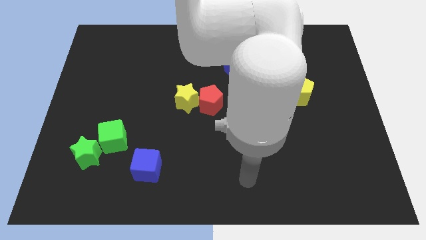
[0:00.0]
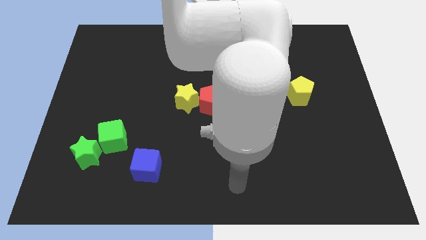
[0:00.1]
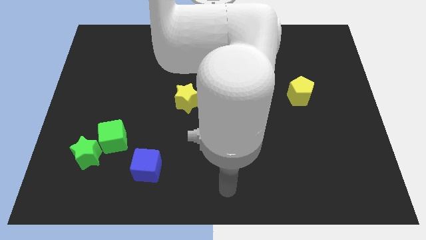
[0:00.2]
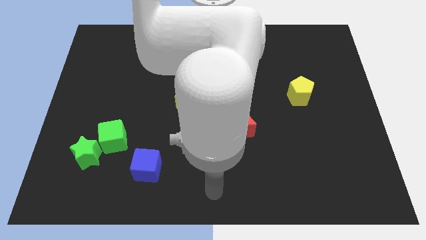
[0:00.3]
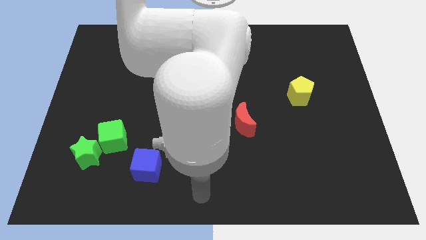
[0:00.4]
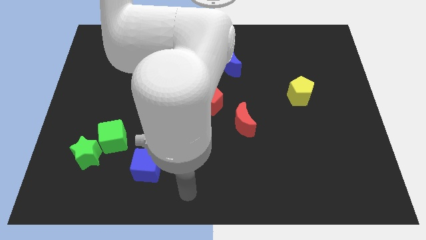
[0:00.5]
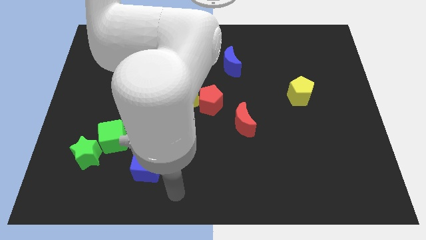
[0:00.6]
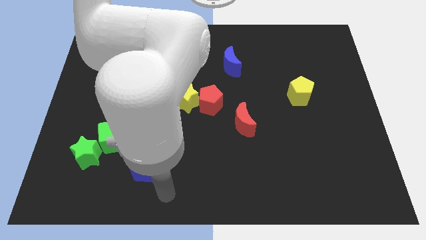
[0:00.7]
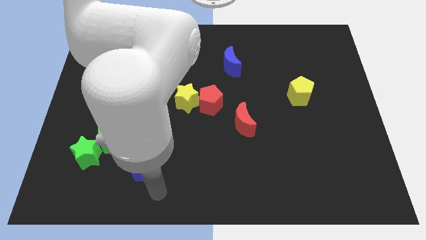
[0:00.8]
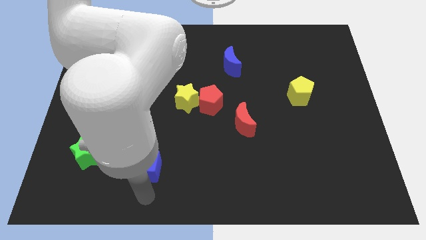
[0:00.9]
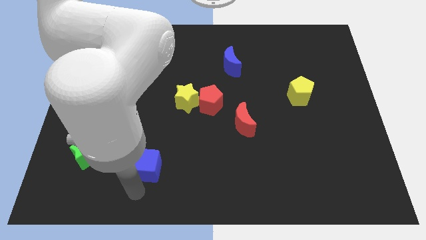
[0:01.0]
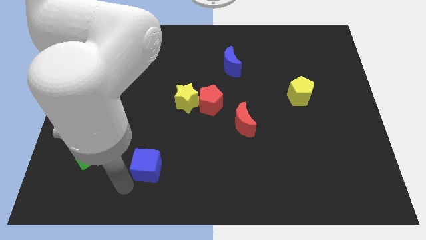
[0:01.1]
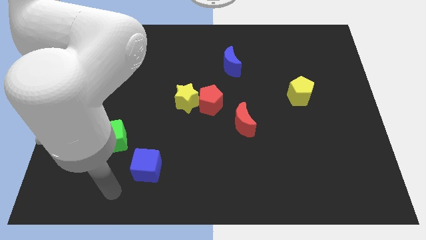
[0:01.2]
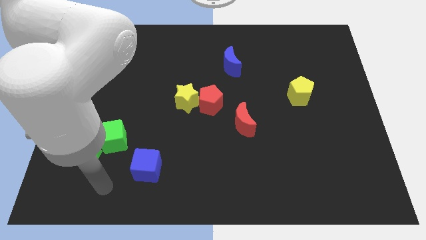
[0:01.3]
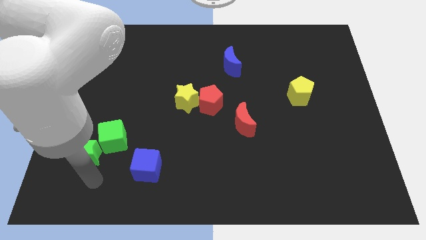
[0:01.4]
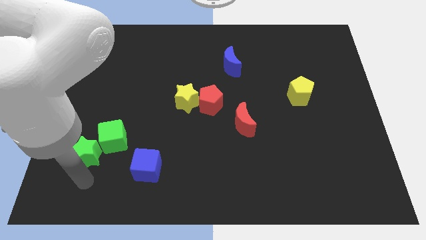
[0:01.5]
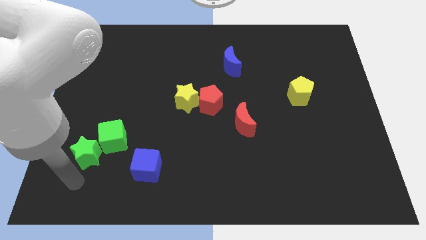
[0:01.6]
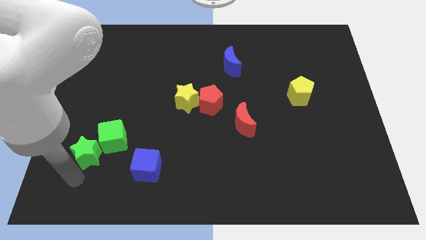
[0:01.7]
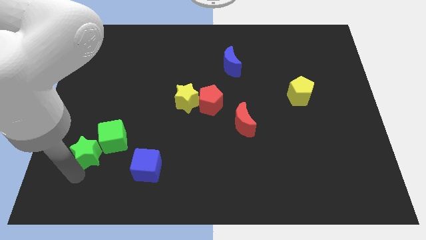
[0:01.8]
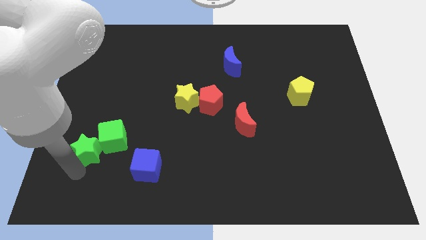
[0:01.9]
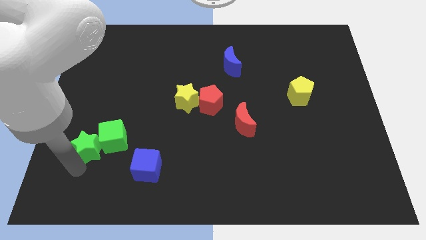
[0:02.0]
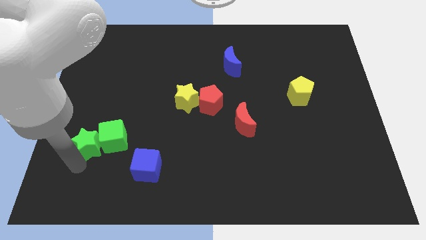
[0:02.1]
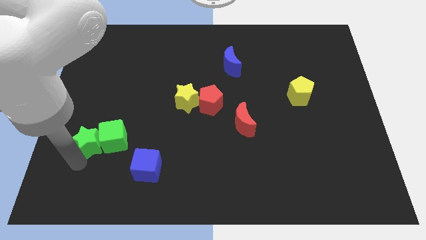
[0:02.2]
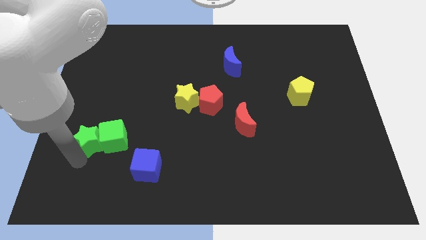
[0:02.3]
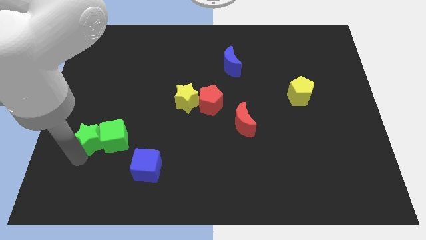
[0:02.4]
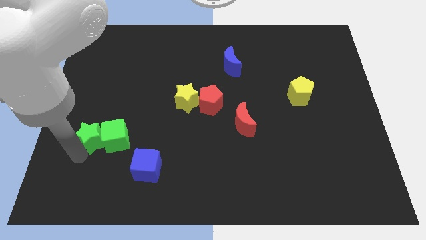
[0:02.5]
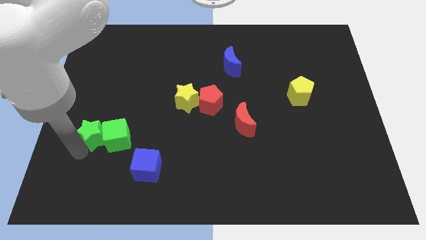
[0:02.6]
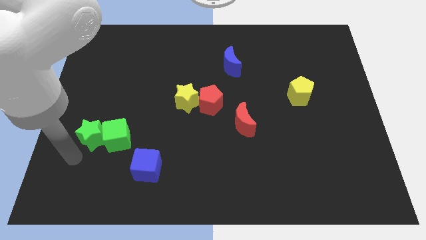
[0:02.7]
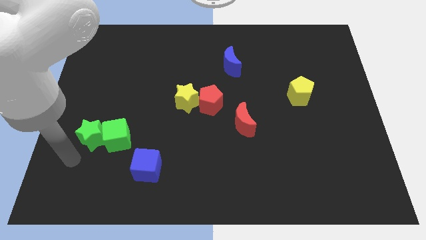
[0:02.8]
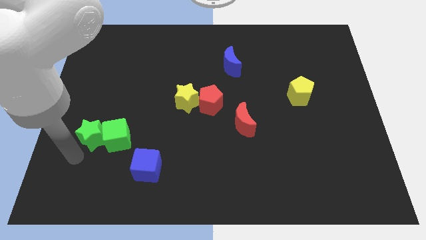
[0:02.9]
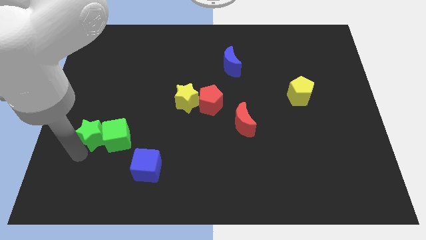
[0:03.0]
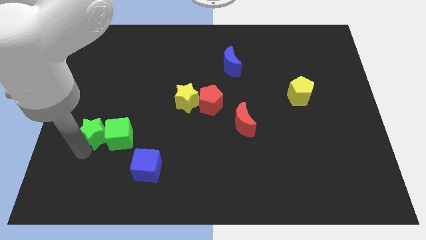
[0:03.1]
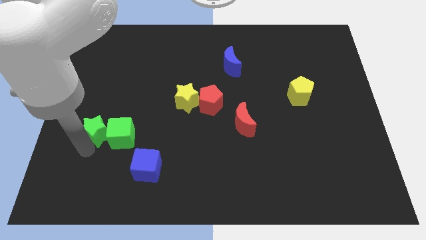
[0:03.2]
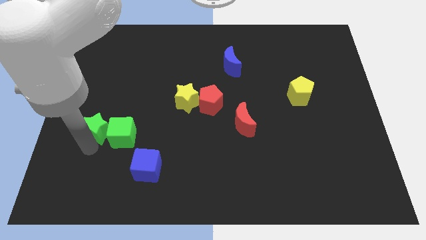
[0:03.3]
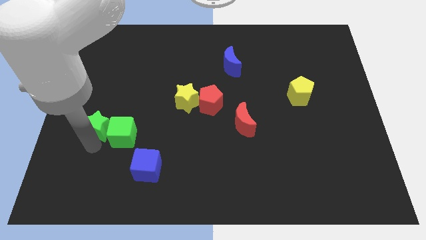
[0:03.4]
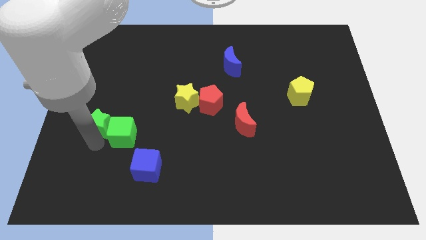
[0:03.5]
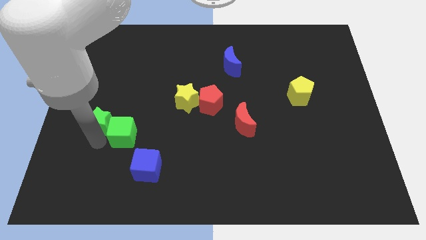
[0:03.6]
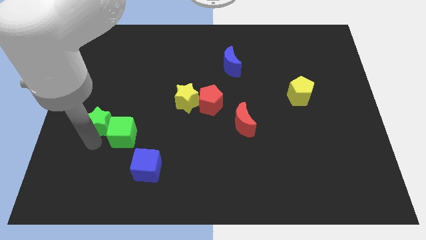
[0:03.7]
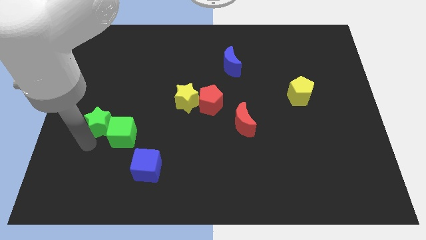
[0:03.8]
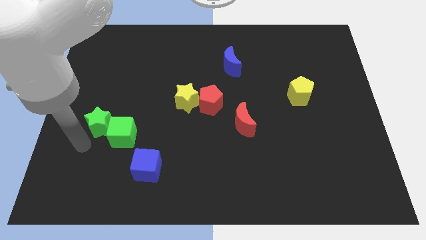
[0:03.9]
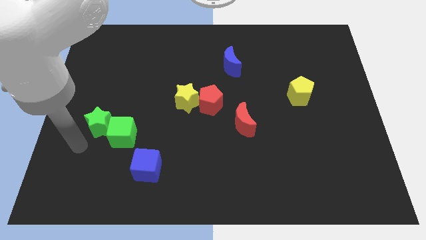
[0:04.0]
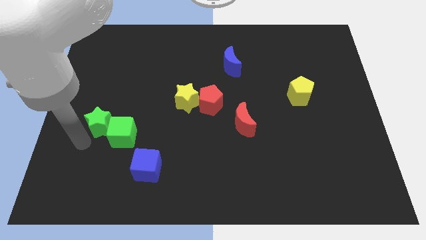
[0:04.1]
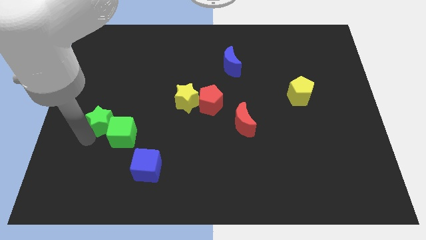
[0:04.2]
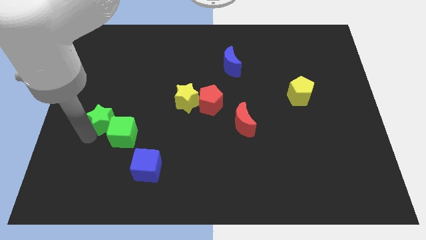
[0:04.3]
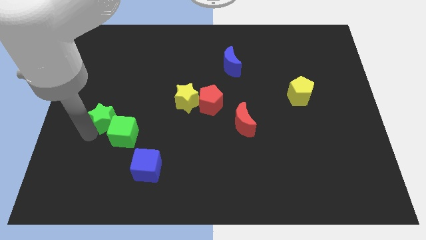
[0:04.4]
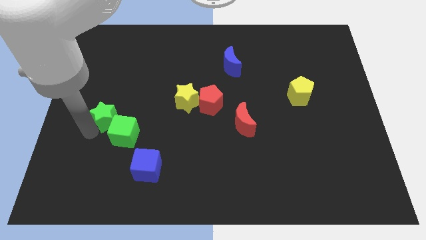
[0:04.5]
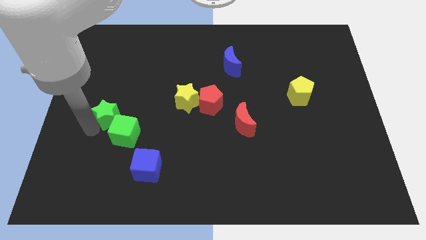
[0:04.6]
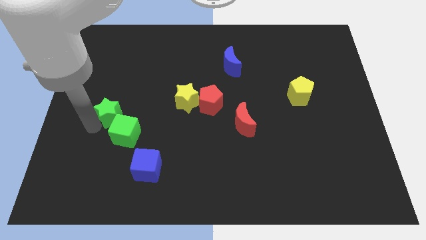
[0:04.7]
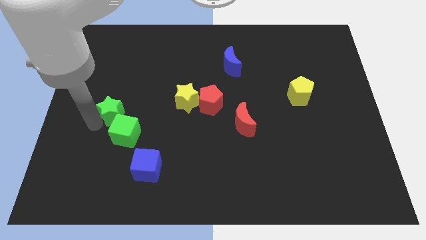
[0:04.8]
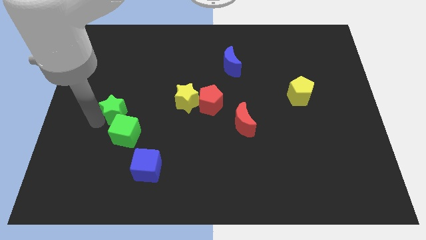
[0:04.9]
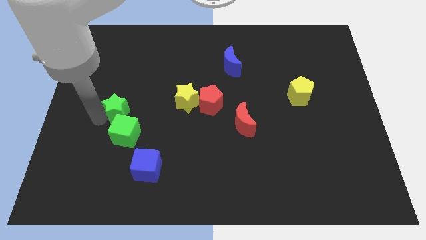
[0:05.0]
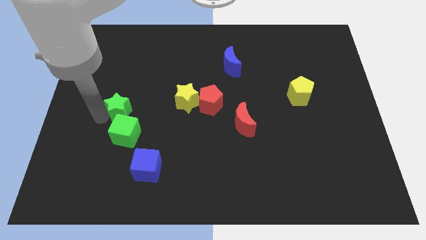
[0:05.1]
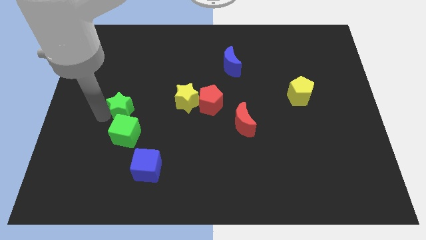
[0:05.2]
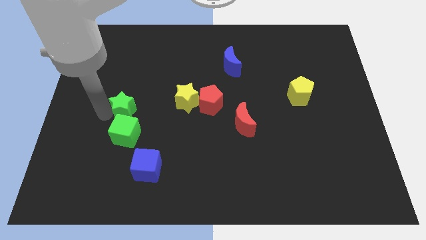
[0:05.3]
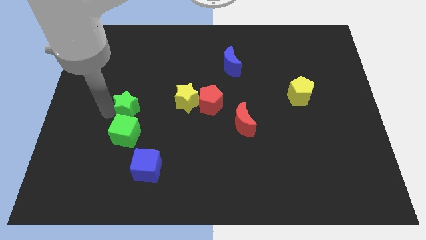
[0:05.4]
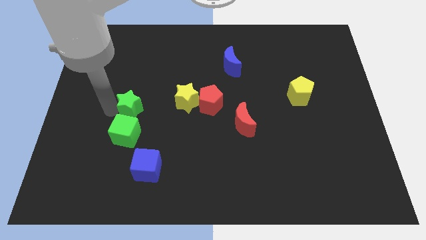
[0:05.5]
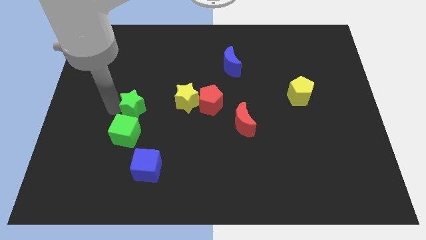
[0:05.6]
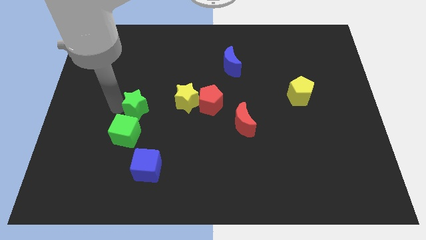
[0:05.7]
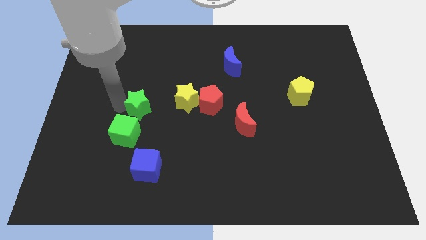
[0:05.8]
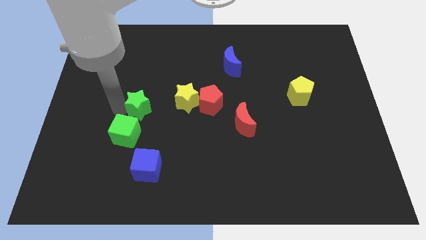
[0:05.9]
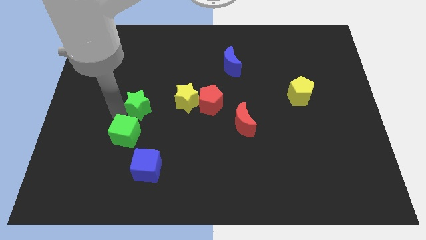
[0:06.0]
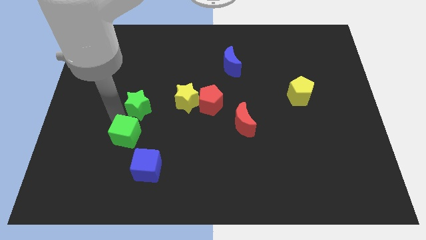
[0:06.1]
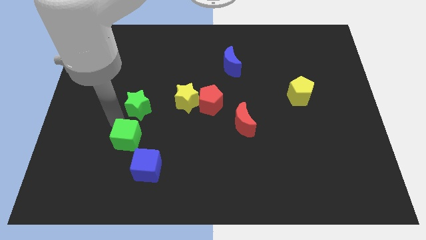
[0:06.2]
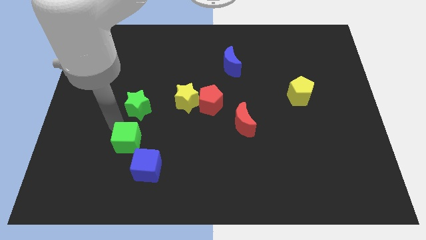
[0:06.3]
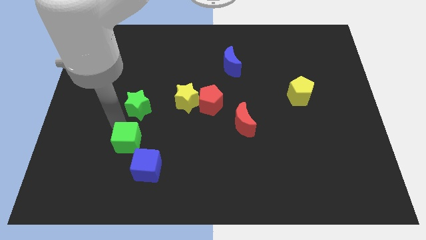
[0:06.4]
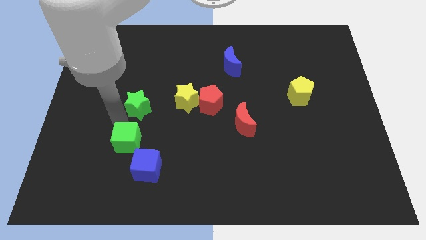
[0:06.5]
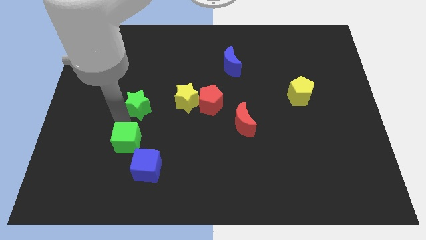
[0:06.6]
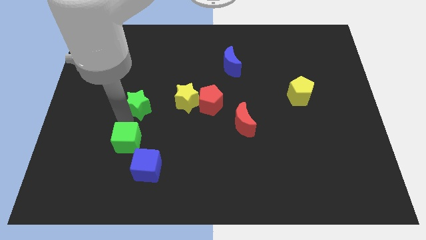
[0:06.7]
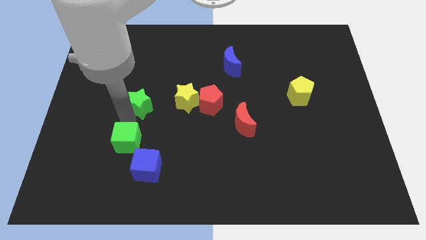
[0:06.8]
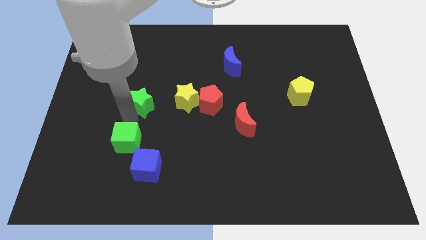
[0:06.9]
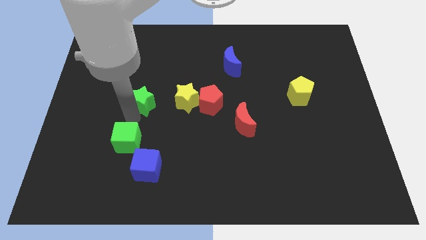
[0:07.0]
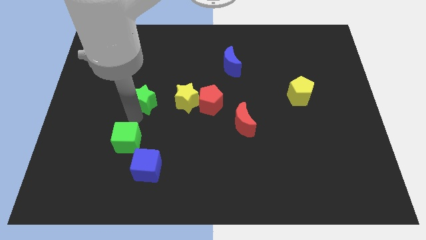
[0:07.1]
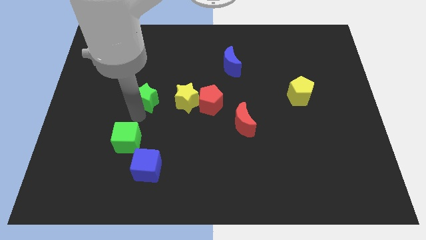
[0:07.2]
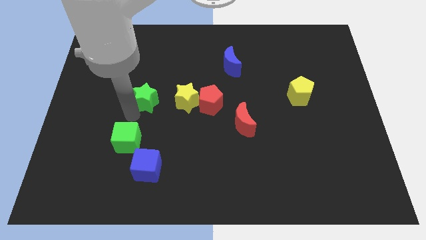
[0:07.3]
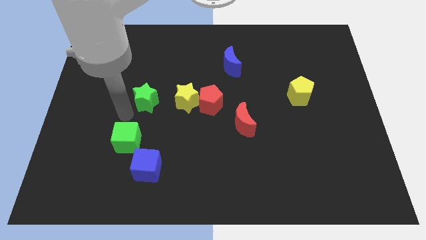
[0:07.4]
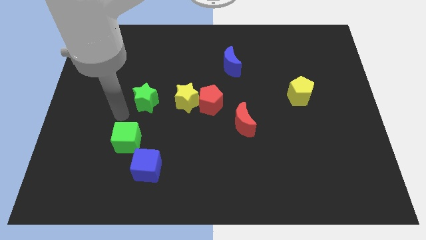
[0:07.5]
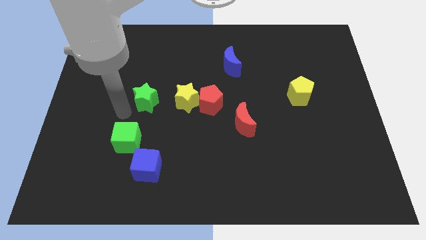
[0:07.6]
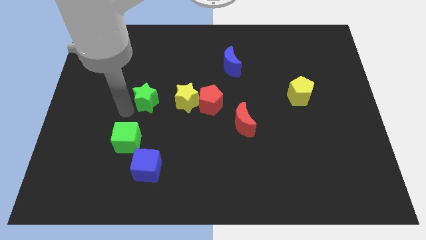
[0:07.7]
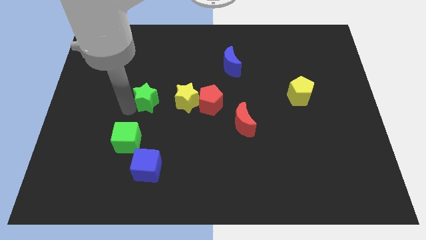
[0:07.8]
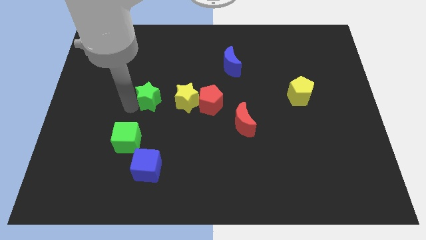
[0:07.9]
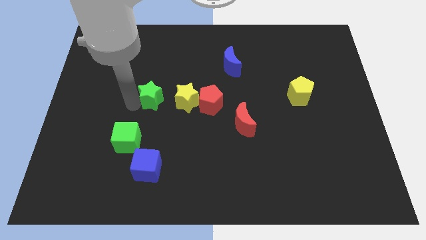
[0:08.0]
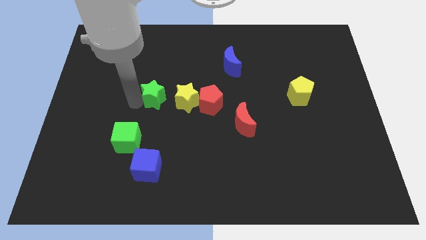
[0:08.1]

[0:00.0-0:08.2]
slide the green star up and then to the right
